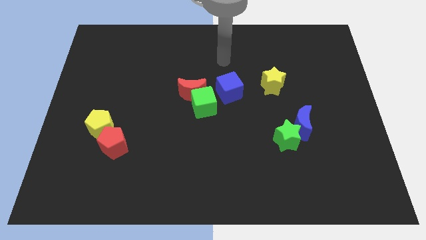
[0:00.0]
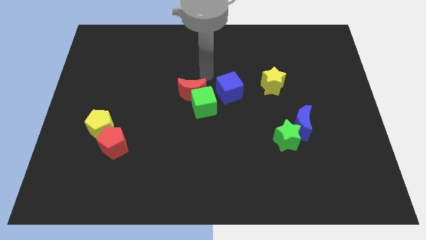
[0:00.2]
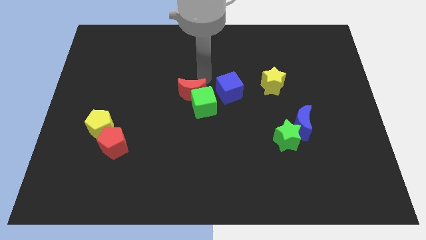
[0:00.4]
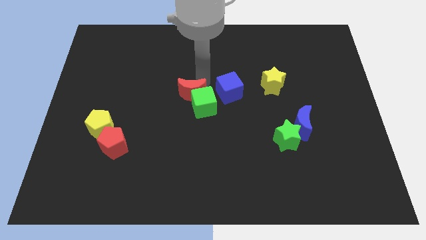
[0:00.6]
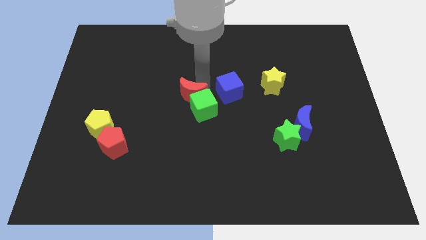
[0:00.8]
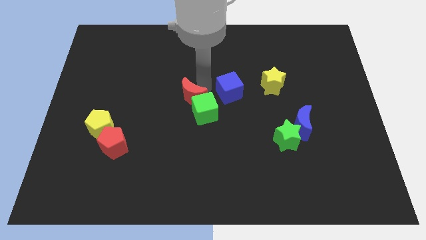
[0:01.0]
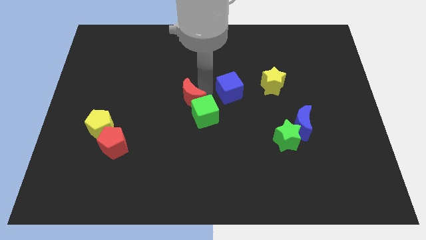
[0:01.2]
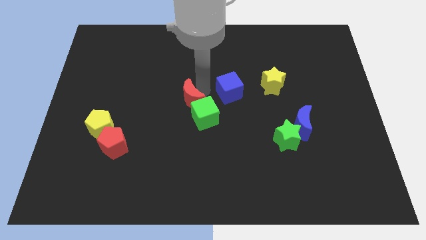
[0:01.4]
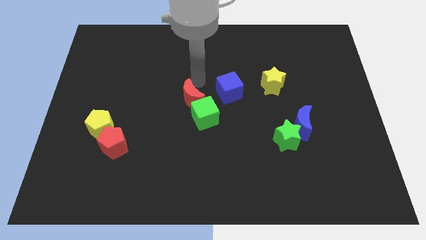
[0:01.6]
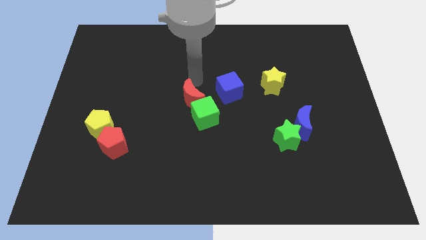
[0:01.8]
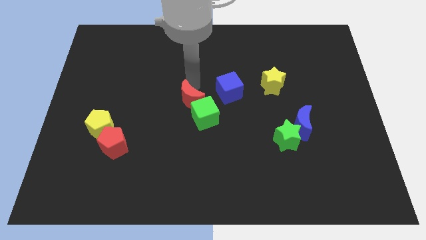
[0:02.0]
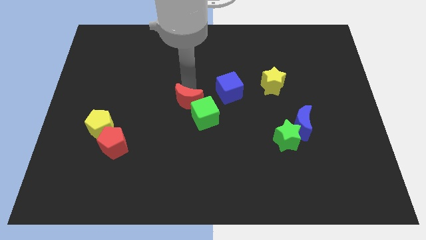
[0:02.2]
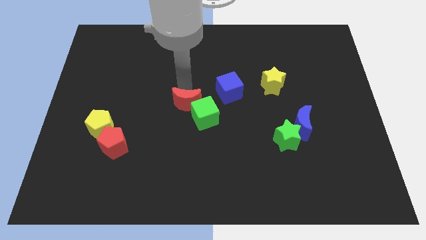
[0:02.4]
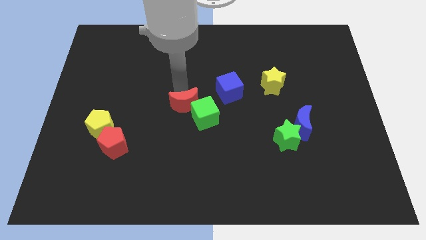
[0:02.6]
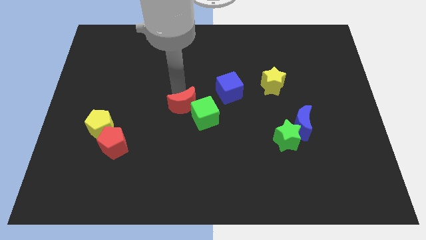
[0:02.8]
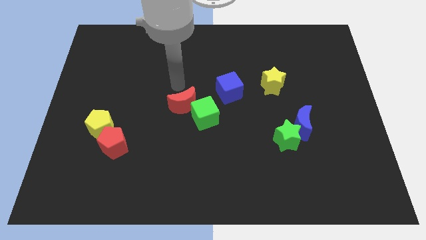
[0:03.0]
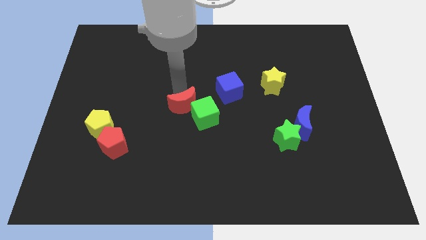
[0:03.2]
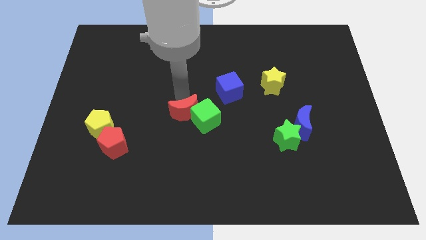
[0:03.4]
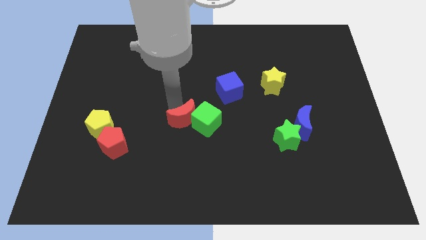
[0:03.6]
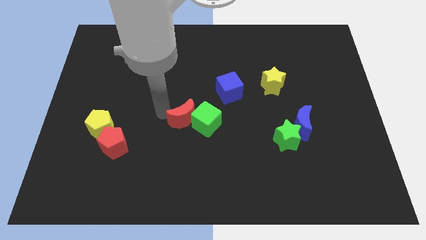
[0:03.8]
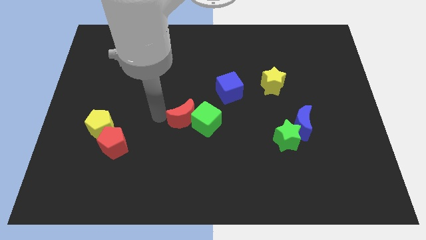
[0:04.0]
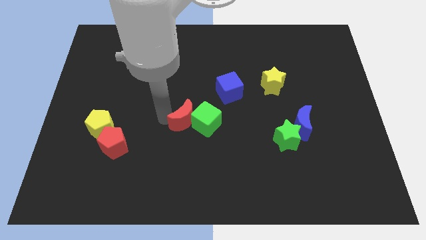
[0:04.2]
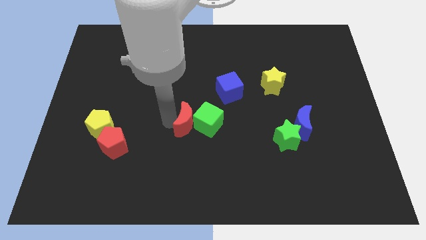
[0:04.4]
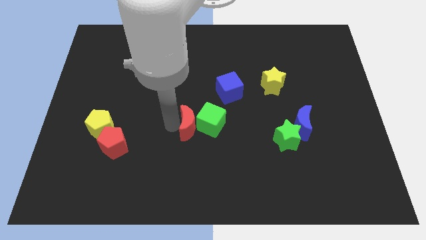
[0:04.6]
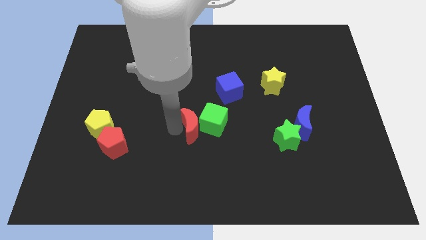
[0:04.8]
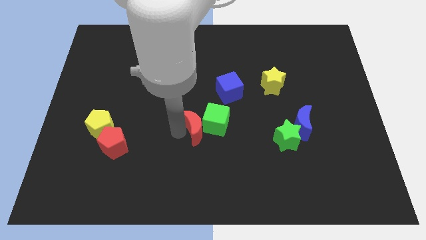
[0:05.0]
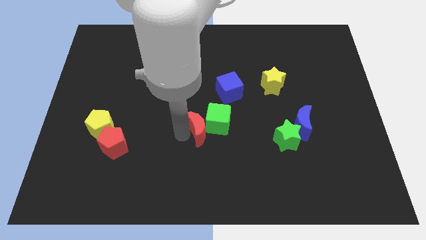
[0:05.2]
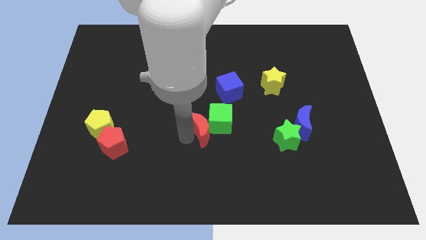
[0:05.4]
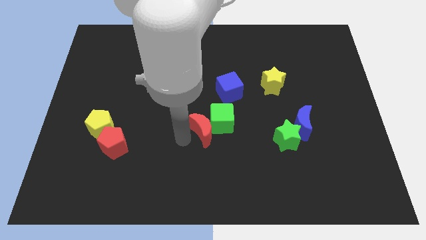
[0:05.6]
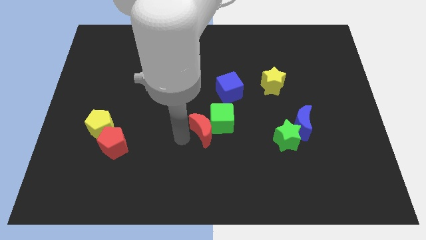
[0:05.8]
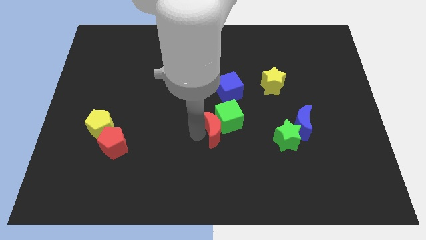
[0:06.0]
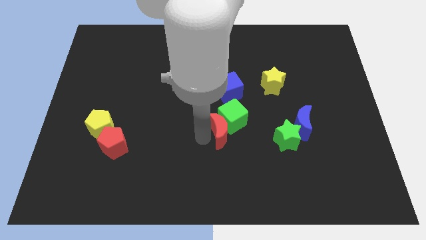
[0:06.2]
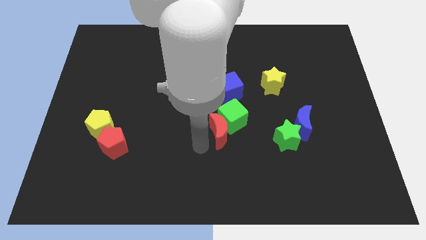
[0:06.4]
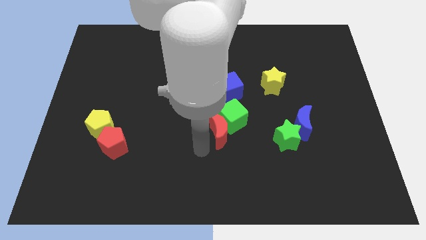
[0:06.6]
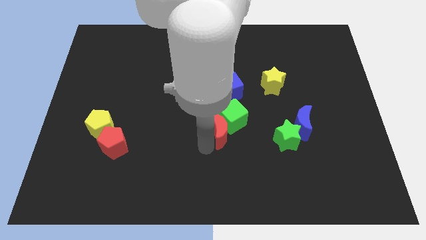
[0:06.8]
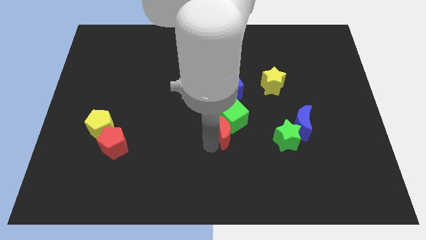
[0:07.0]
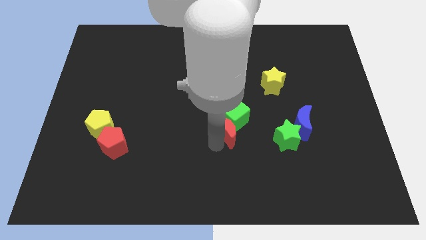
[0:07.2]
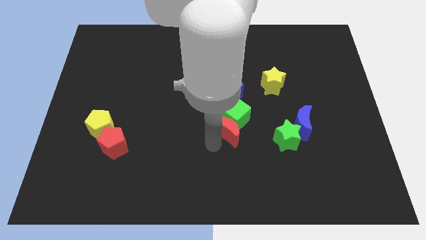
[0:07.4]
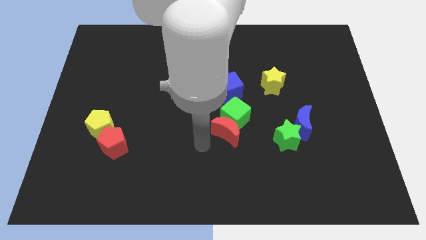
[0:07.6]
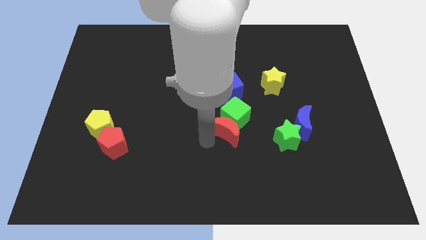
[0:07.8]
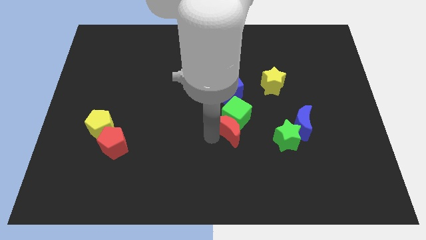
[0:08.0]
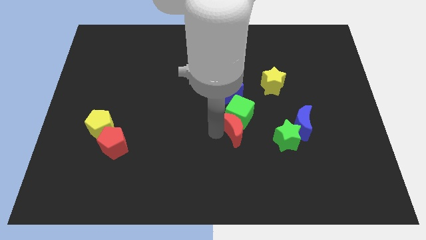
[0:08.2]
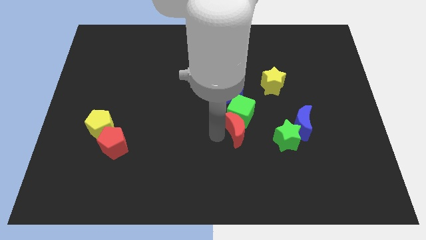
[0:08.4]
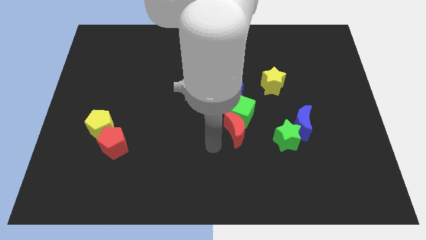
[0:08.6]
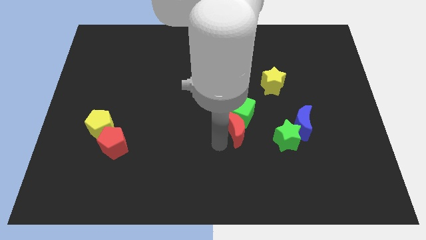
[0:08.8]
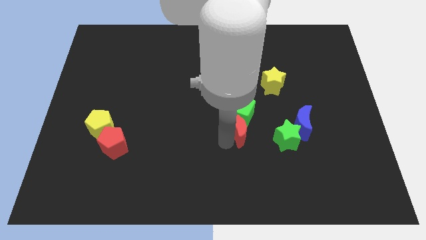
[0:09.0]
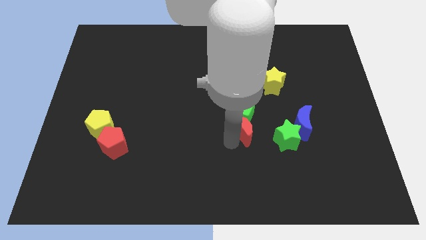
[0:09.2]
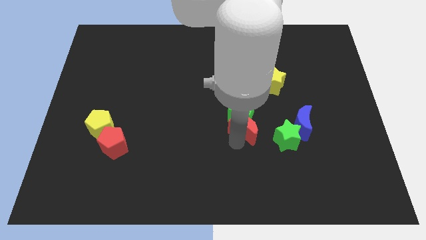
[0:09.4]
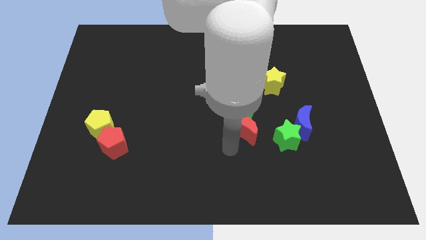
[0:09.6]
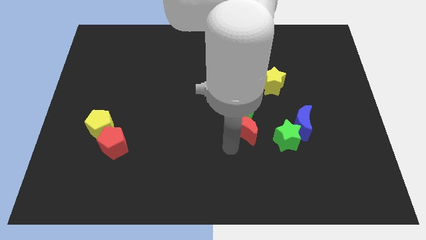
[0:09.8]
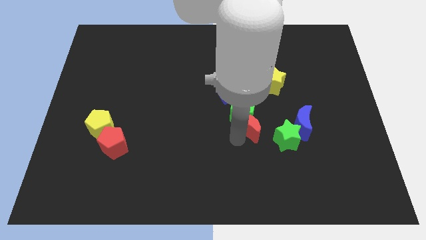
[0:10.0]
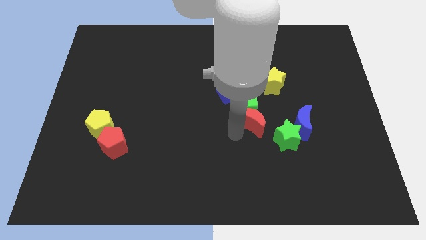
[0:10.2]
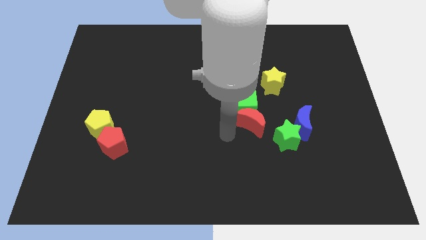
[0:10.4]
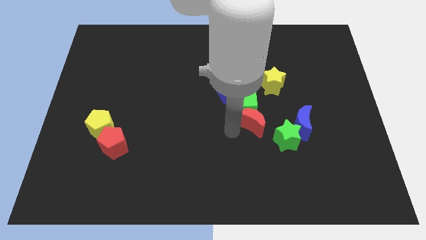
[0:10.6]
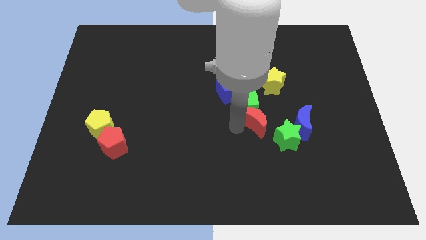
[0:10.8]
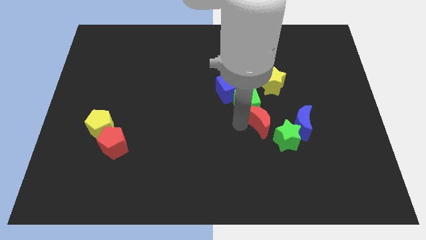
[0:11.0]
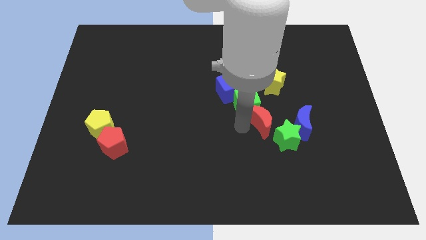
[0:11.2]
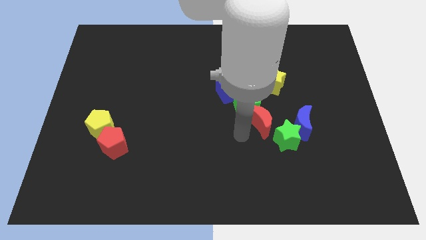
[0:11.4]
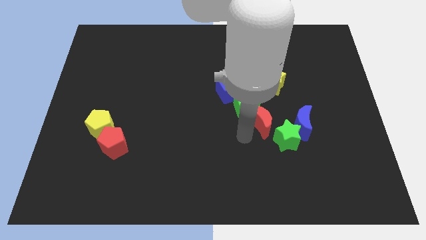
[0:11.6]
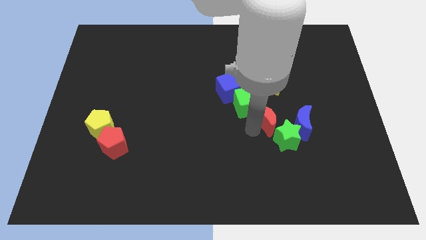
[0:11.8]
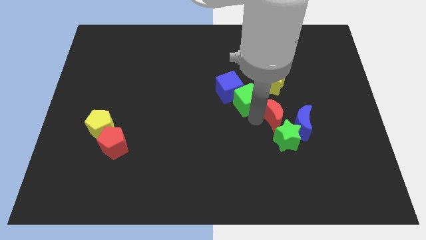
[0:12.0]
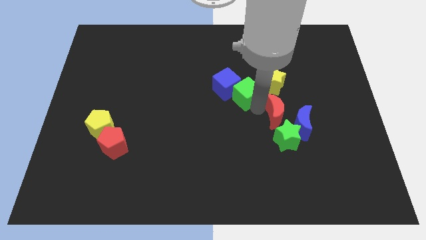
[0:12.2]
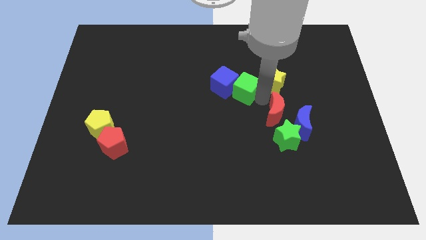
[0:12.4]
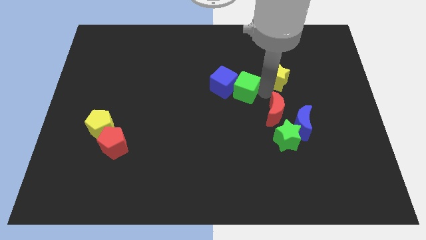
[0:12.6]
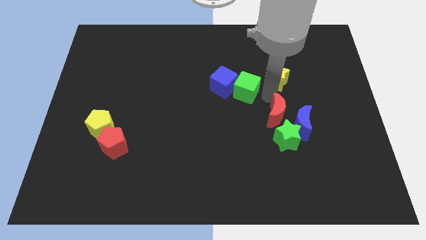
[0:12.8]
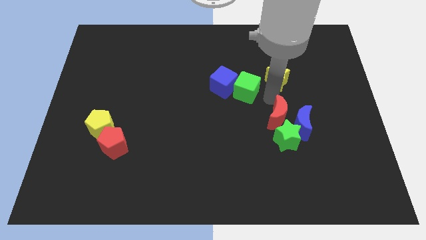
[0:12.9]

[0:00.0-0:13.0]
push the red moon to the green star
